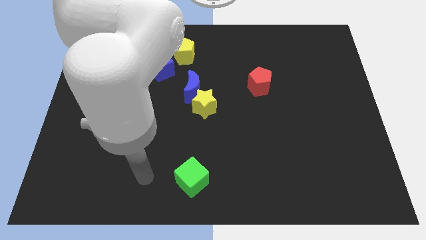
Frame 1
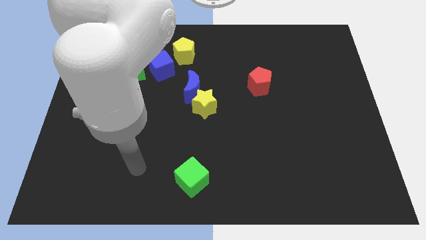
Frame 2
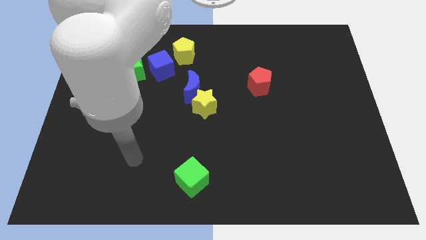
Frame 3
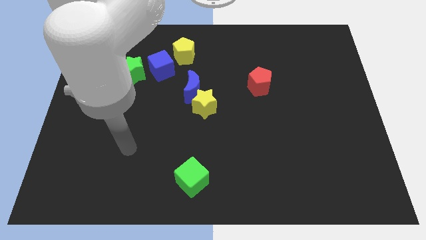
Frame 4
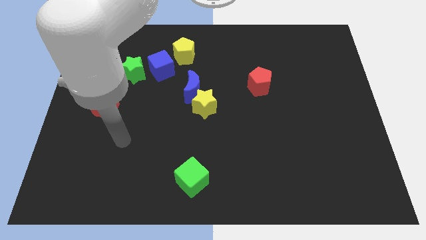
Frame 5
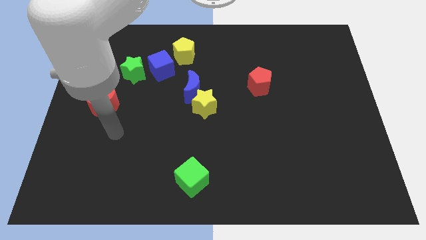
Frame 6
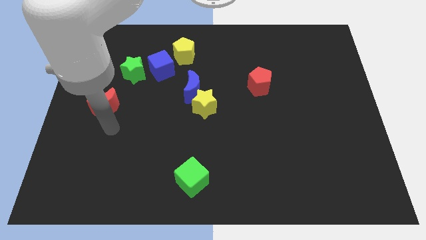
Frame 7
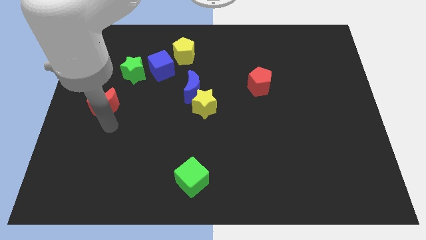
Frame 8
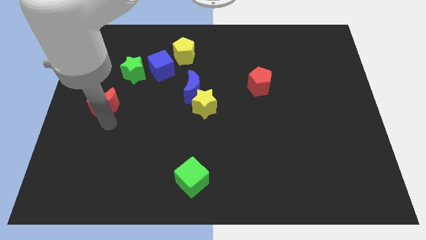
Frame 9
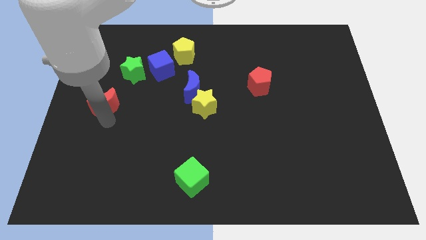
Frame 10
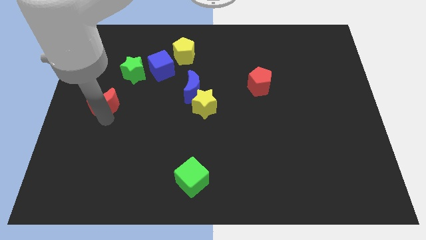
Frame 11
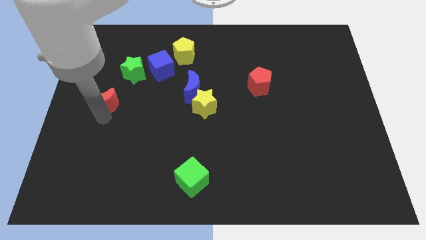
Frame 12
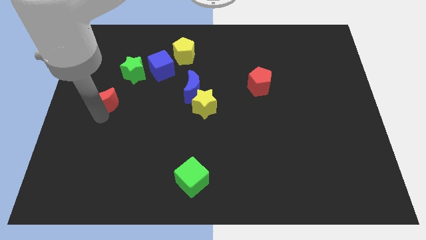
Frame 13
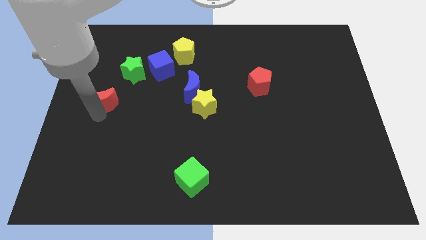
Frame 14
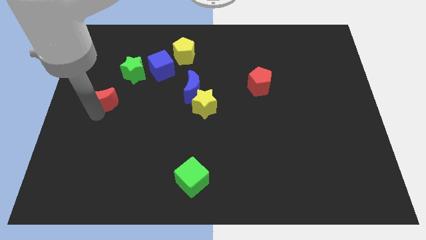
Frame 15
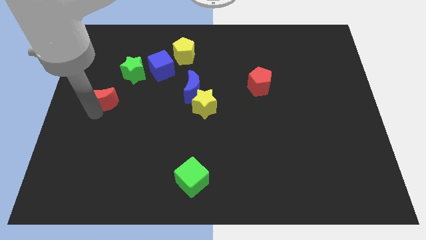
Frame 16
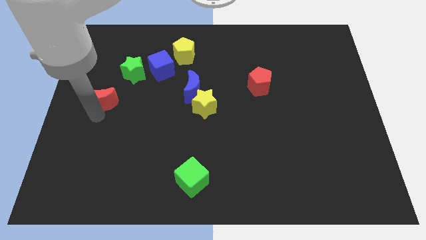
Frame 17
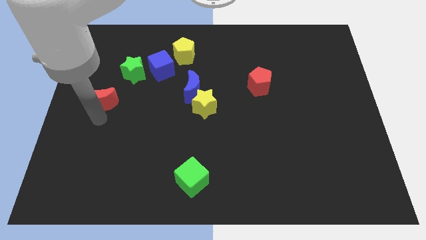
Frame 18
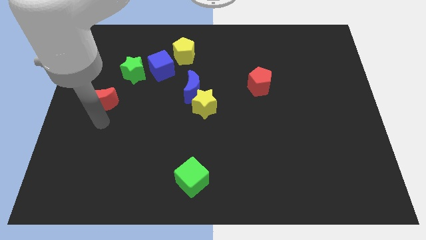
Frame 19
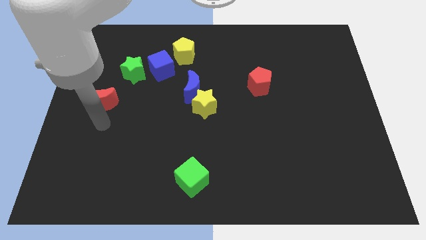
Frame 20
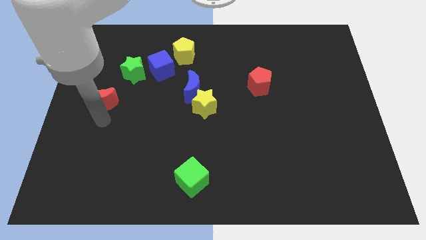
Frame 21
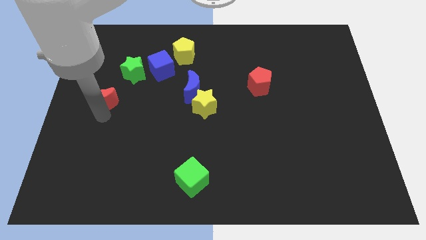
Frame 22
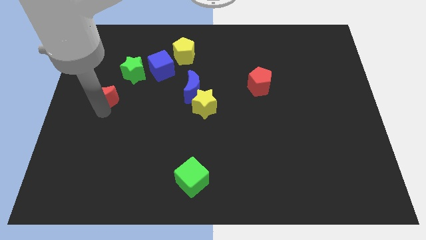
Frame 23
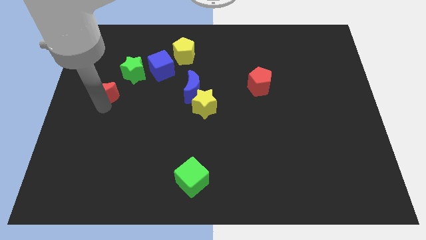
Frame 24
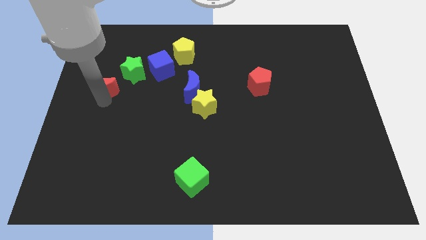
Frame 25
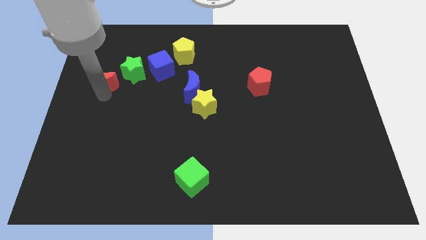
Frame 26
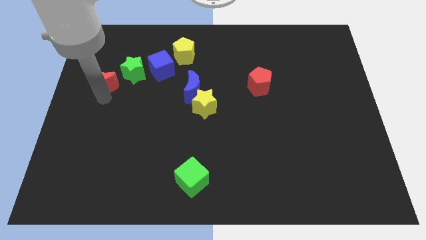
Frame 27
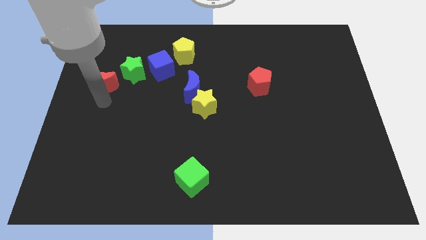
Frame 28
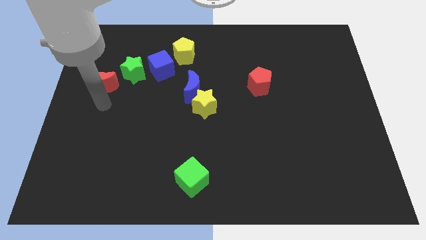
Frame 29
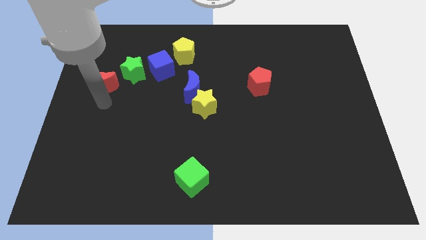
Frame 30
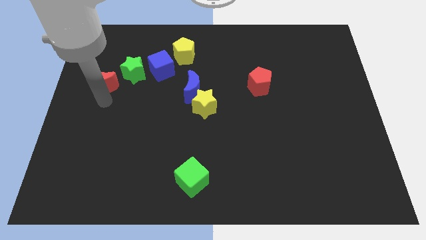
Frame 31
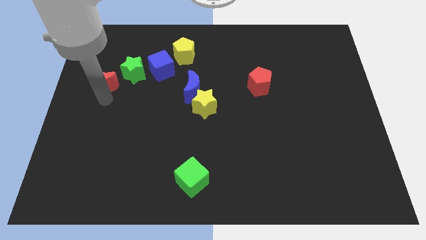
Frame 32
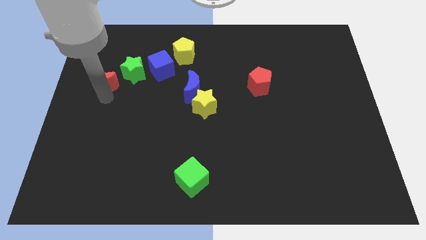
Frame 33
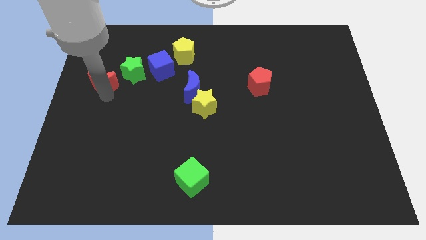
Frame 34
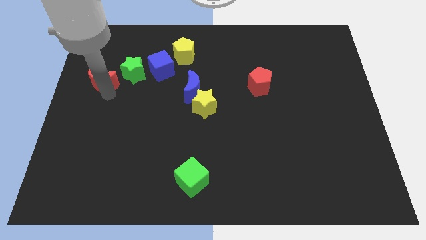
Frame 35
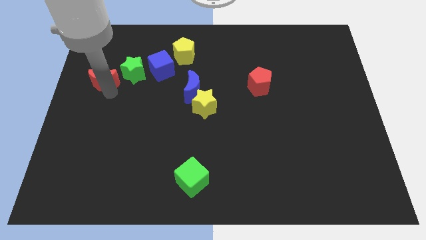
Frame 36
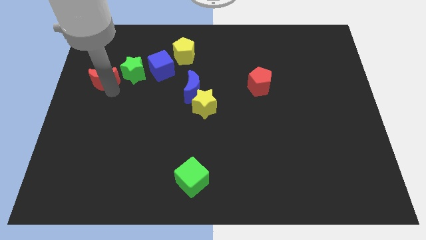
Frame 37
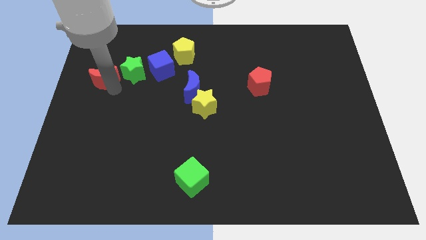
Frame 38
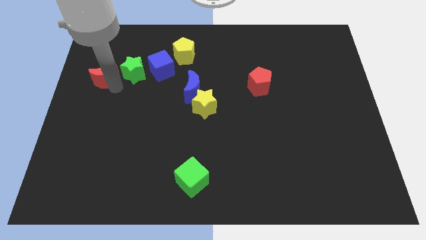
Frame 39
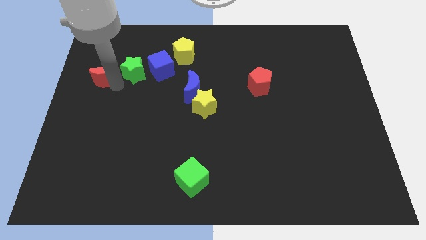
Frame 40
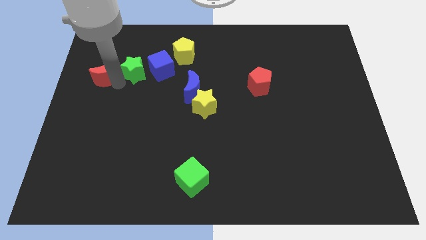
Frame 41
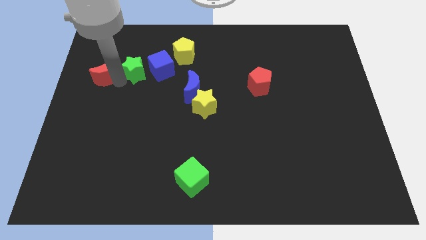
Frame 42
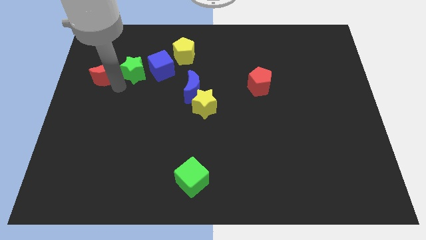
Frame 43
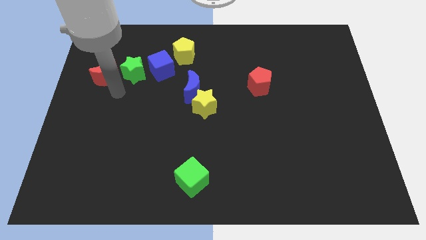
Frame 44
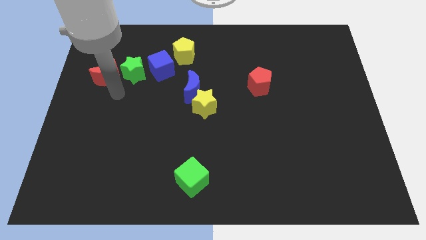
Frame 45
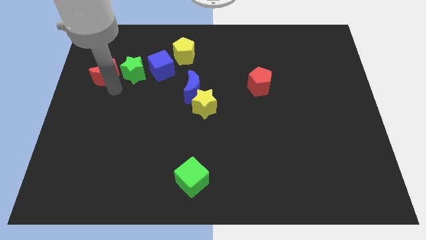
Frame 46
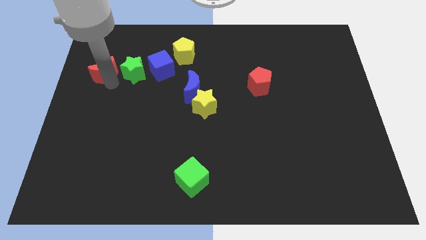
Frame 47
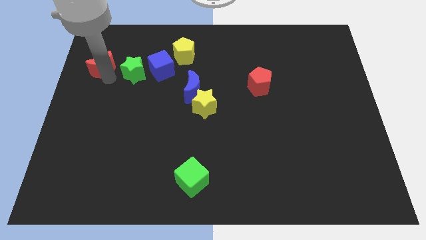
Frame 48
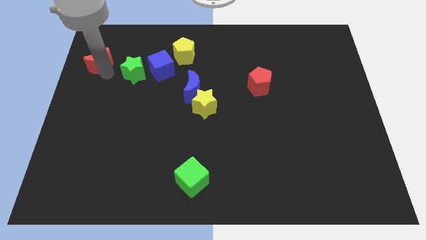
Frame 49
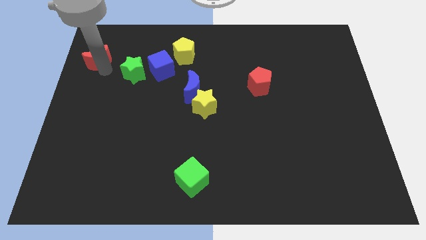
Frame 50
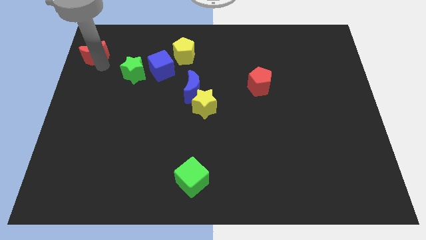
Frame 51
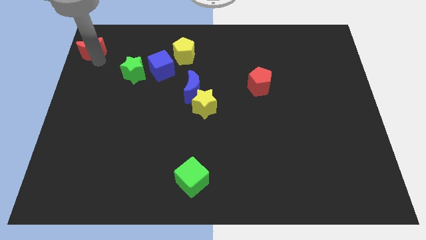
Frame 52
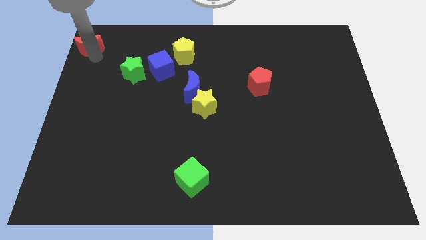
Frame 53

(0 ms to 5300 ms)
push the red moon to the top left corner

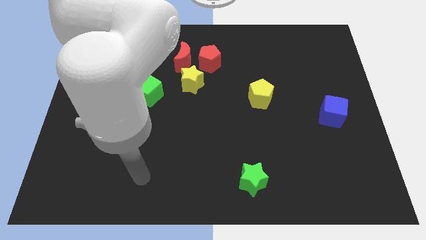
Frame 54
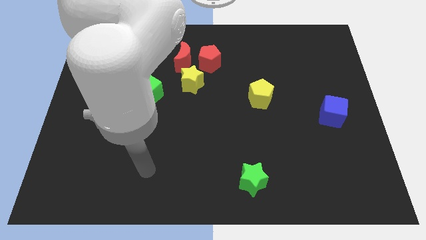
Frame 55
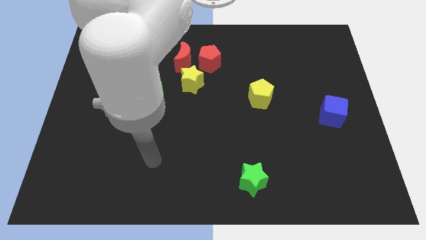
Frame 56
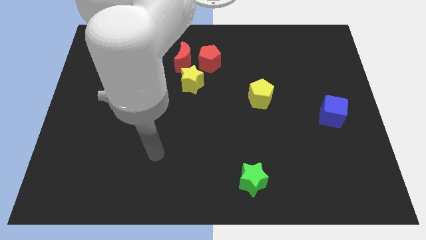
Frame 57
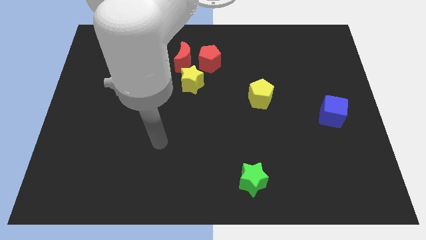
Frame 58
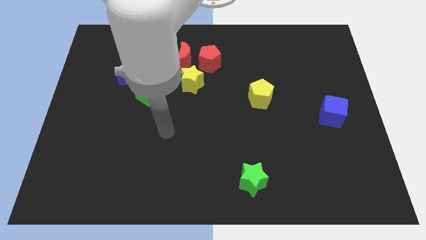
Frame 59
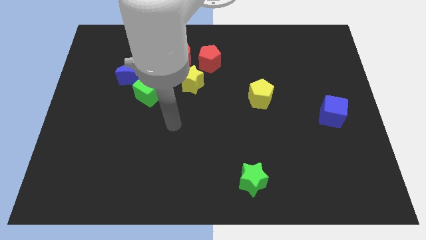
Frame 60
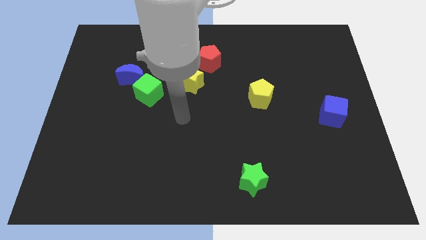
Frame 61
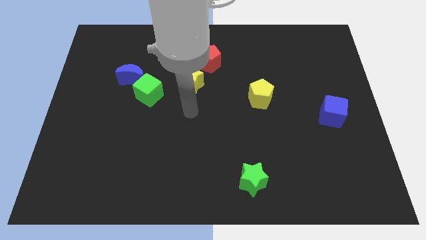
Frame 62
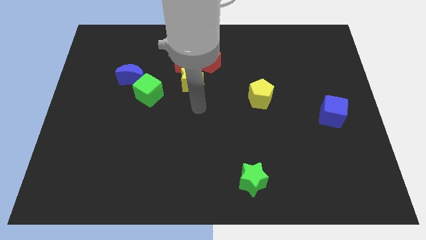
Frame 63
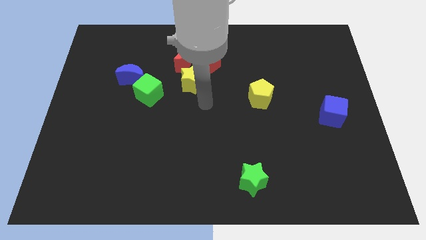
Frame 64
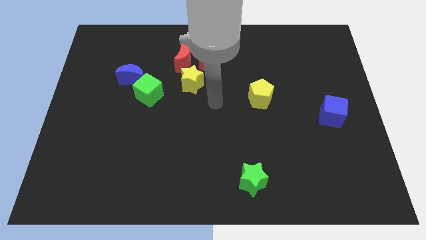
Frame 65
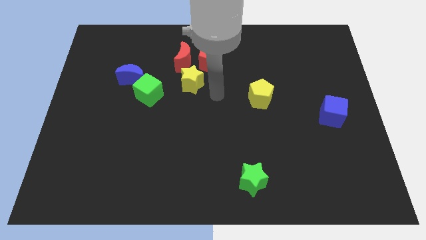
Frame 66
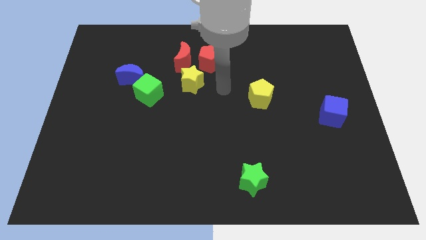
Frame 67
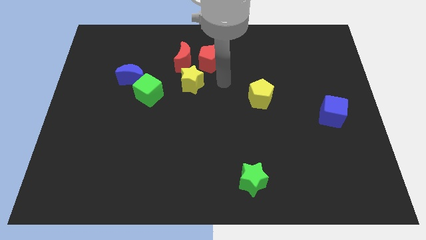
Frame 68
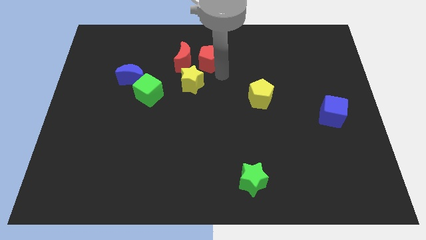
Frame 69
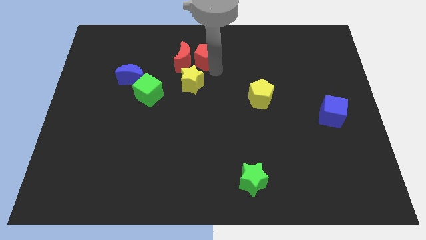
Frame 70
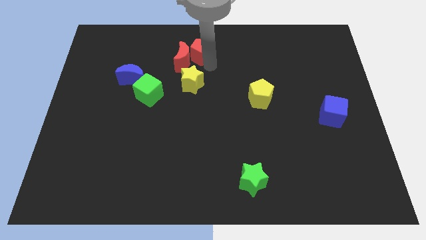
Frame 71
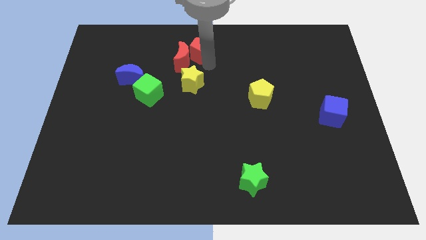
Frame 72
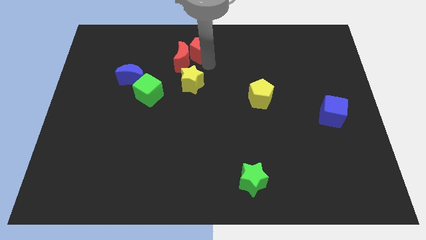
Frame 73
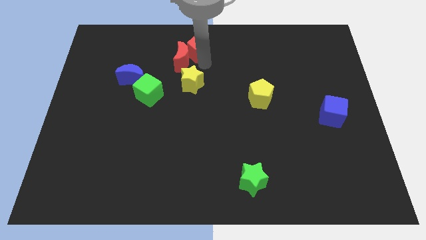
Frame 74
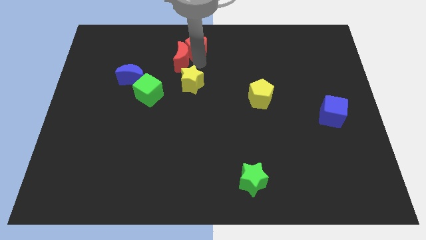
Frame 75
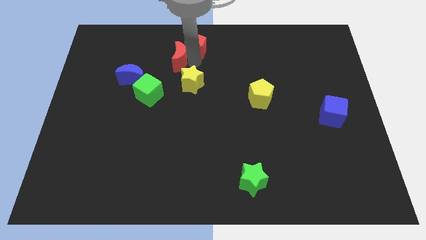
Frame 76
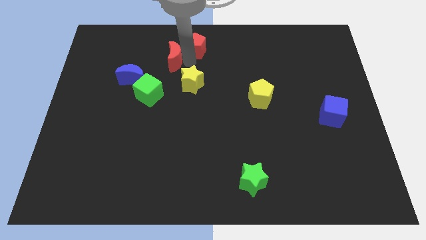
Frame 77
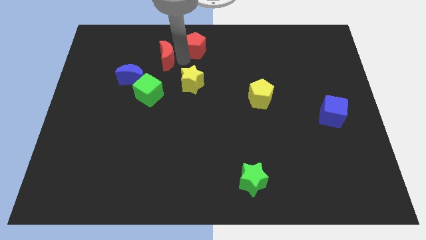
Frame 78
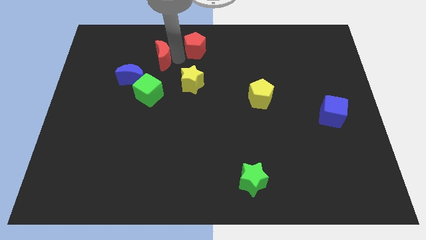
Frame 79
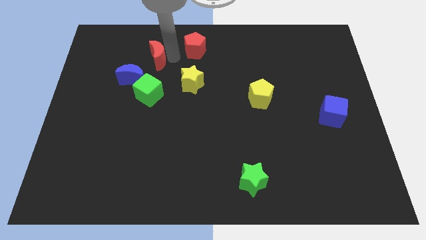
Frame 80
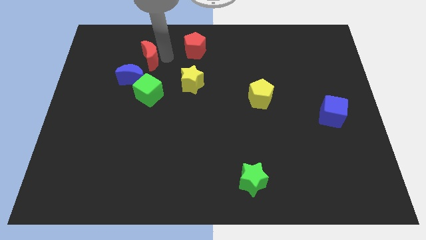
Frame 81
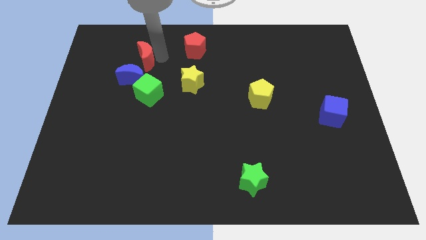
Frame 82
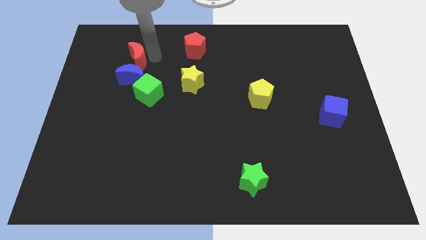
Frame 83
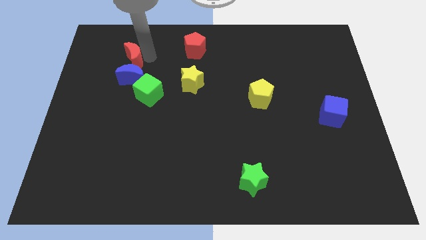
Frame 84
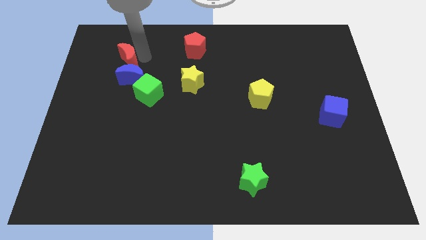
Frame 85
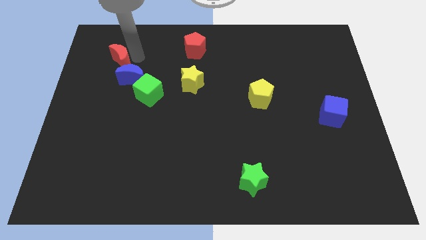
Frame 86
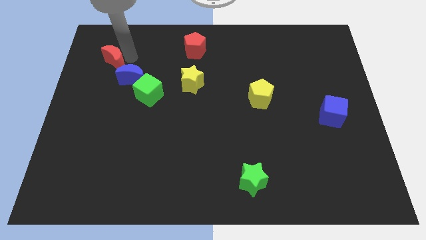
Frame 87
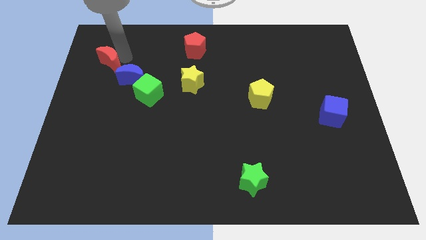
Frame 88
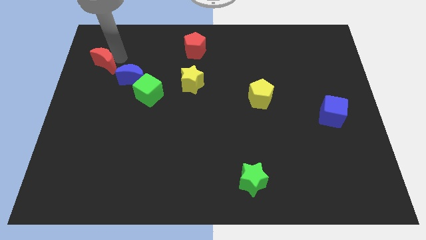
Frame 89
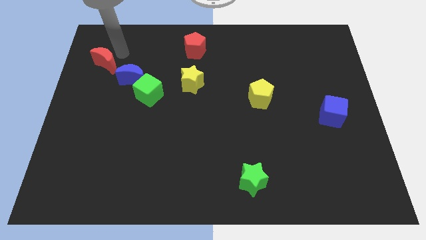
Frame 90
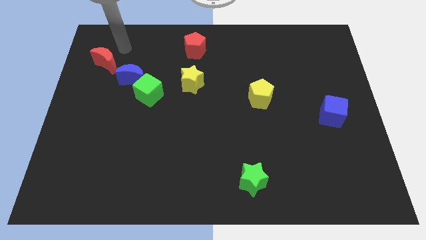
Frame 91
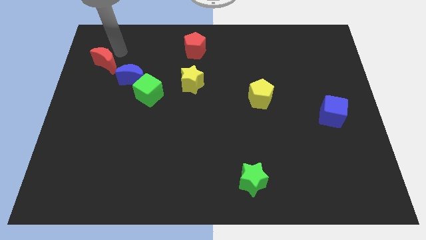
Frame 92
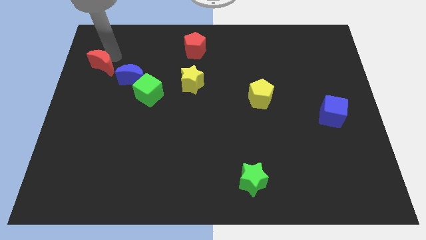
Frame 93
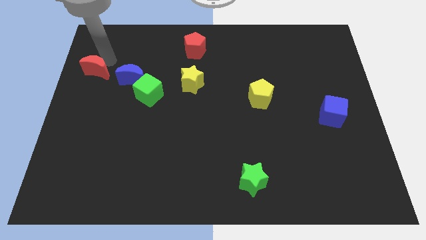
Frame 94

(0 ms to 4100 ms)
move the red moon to the center left
